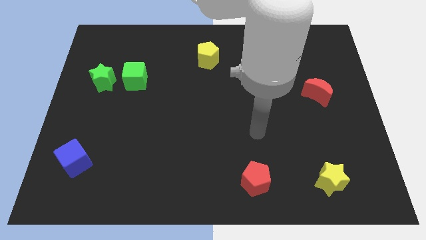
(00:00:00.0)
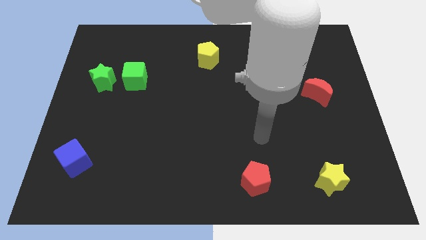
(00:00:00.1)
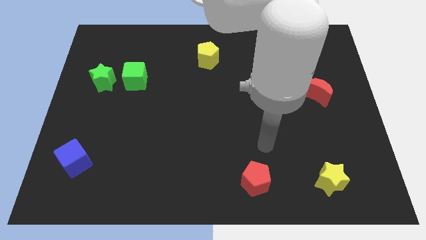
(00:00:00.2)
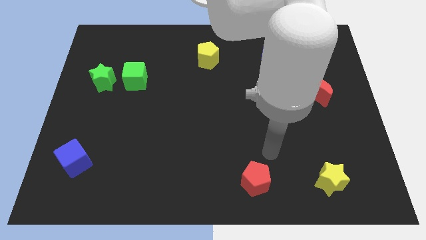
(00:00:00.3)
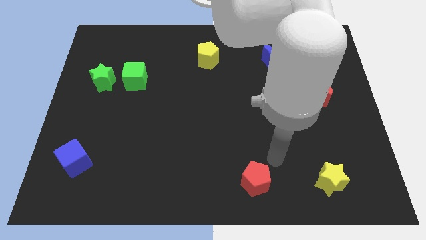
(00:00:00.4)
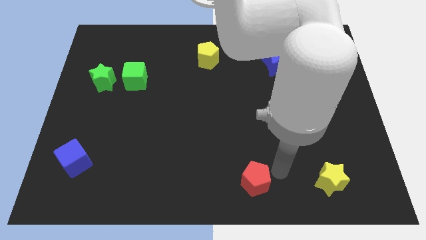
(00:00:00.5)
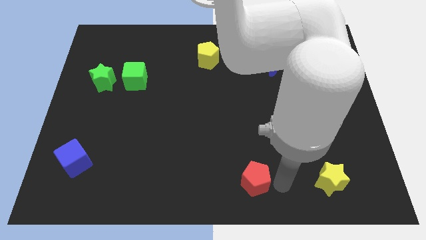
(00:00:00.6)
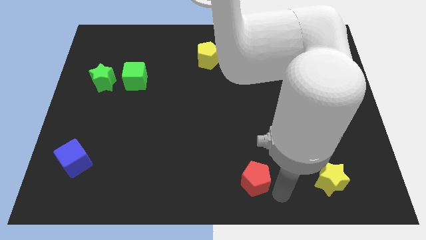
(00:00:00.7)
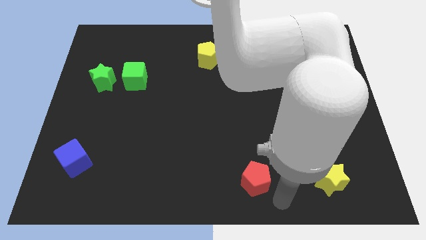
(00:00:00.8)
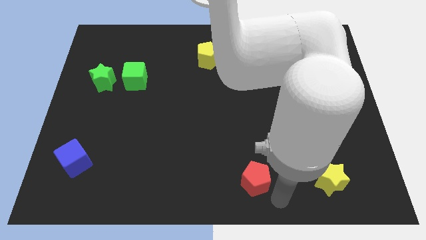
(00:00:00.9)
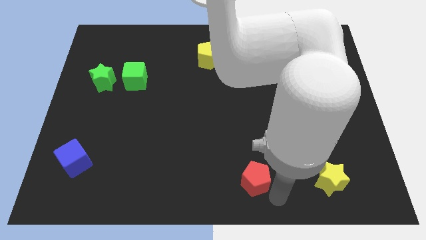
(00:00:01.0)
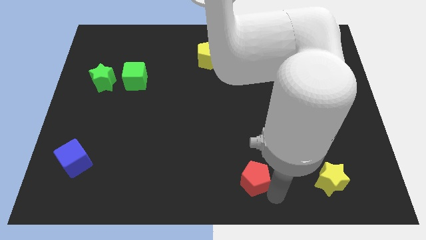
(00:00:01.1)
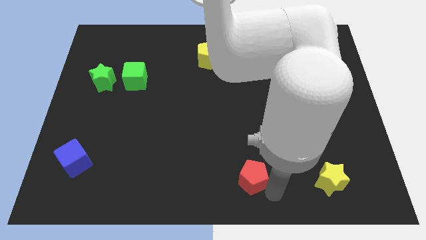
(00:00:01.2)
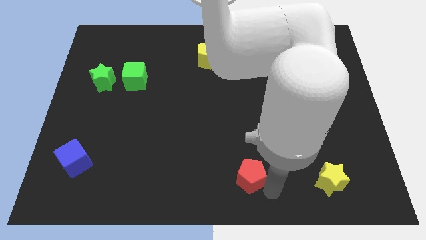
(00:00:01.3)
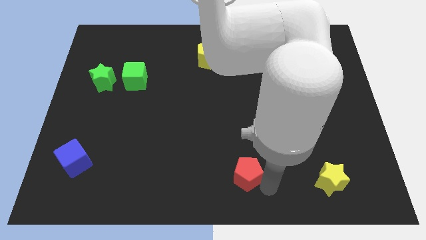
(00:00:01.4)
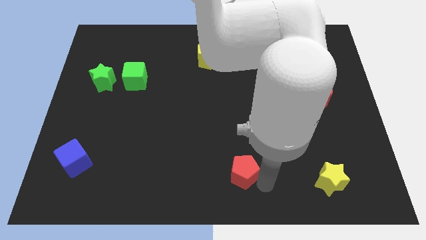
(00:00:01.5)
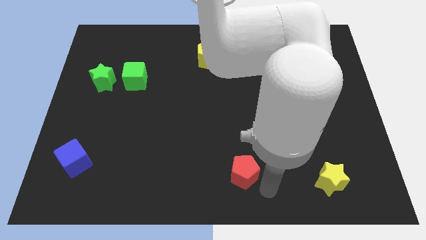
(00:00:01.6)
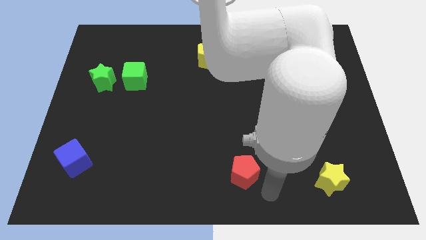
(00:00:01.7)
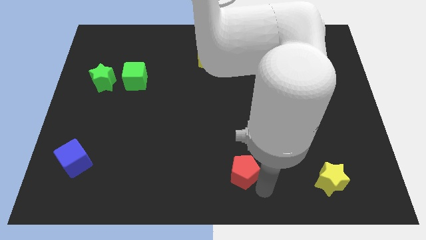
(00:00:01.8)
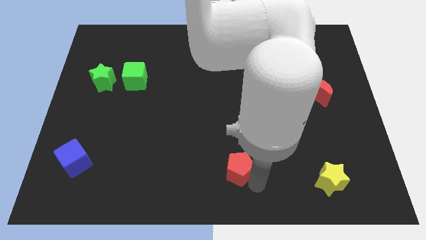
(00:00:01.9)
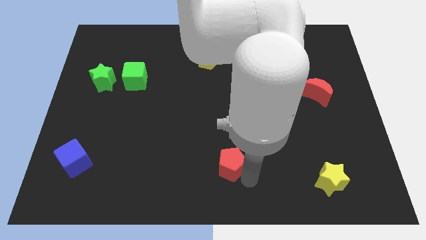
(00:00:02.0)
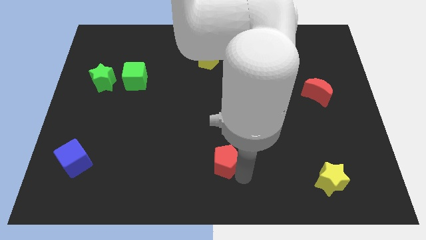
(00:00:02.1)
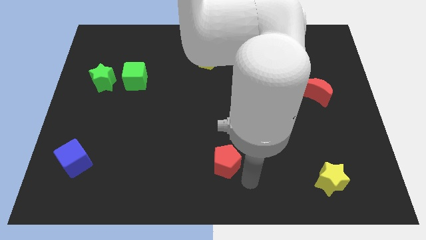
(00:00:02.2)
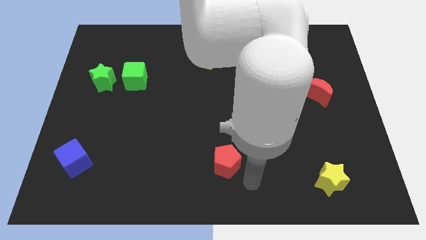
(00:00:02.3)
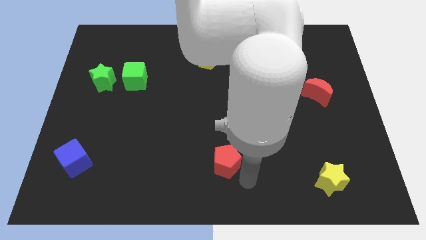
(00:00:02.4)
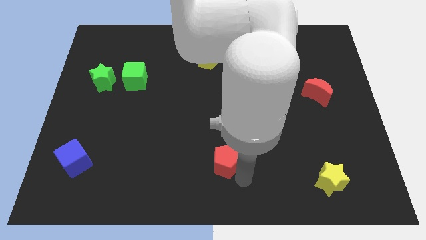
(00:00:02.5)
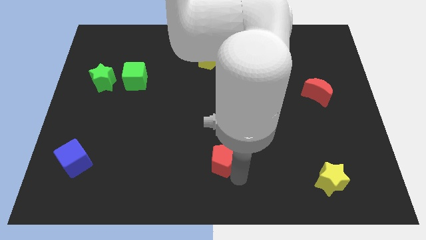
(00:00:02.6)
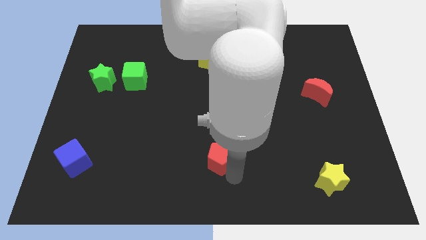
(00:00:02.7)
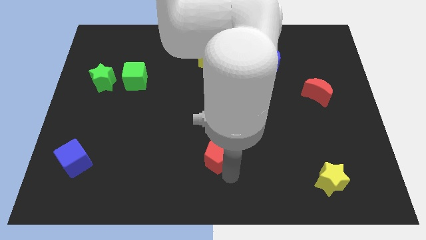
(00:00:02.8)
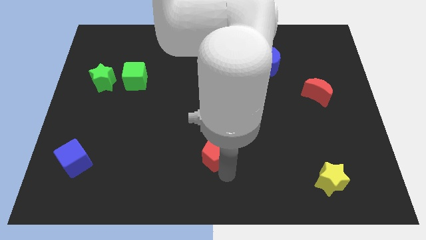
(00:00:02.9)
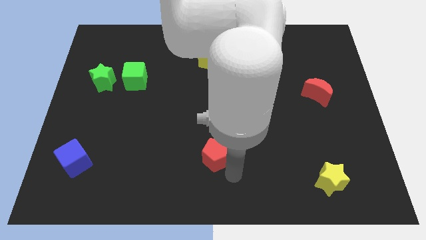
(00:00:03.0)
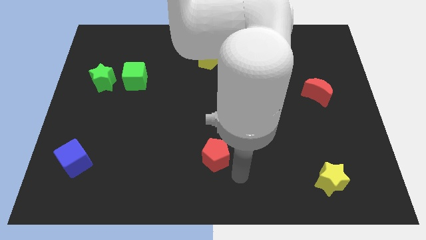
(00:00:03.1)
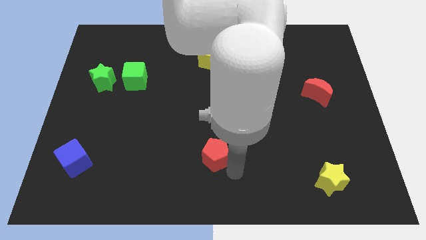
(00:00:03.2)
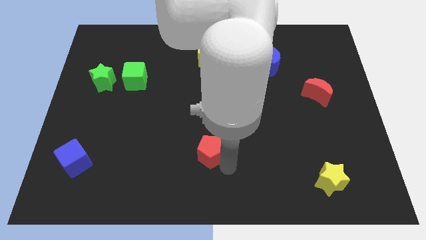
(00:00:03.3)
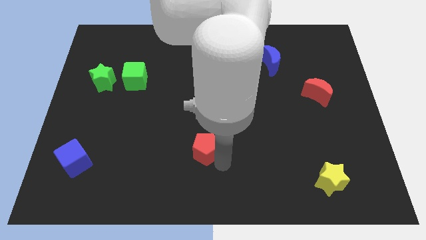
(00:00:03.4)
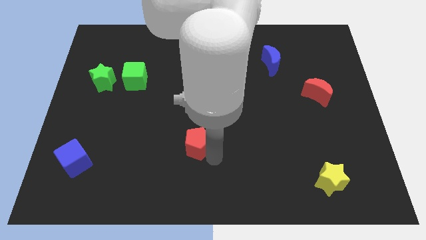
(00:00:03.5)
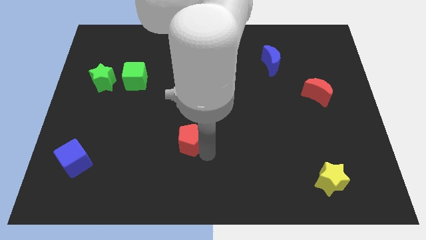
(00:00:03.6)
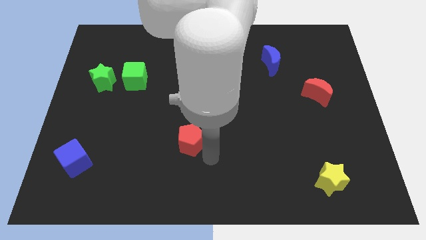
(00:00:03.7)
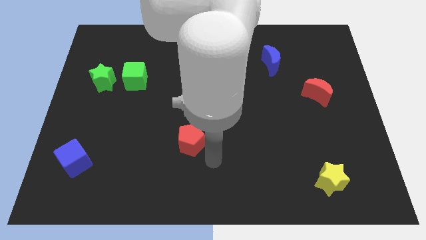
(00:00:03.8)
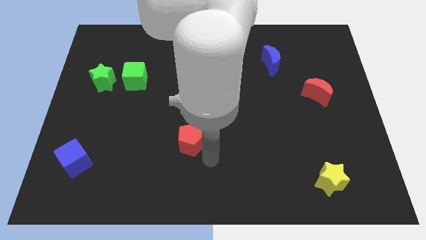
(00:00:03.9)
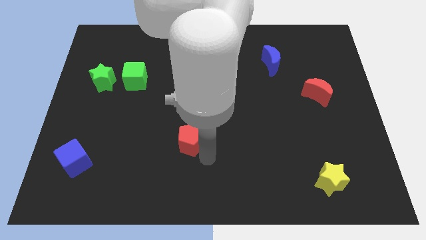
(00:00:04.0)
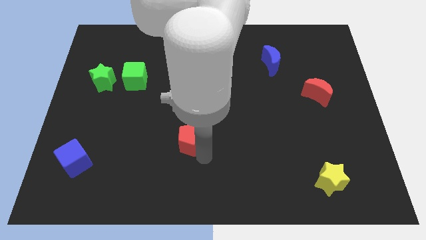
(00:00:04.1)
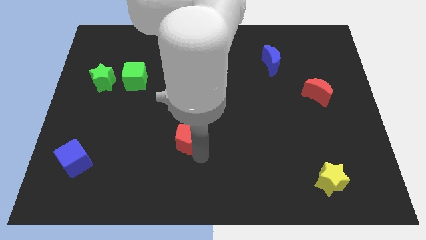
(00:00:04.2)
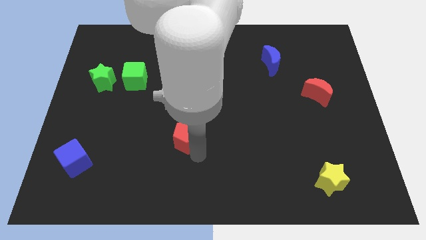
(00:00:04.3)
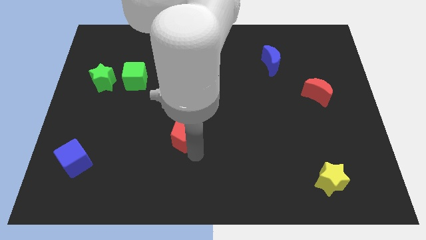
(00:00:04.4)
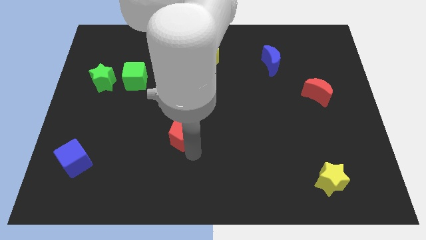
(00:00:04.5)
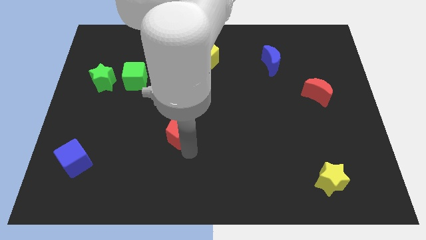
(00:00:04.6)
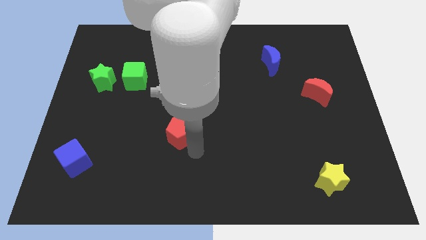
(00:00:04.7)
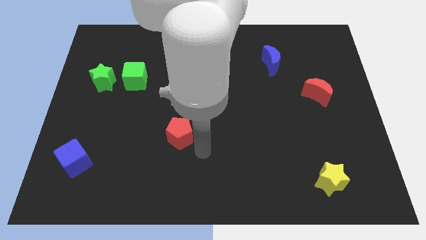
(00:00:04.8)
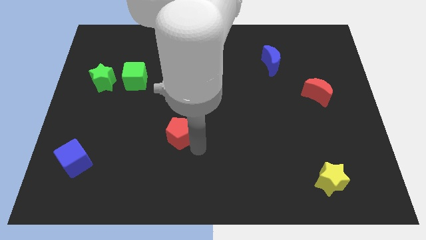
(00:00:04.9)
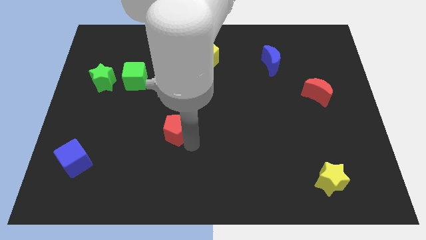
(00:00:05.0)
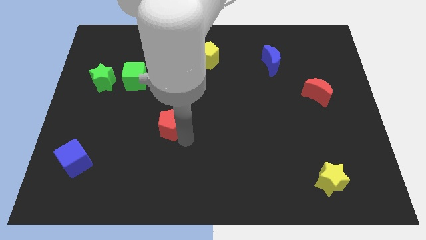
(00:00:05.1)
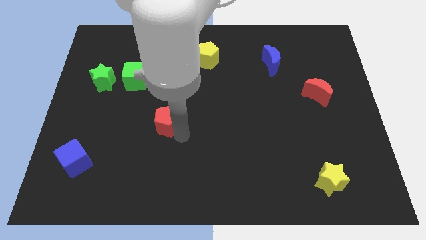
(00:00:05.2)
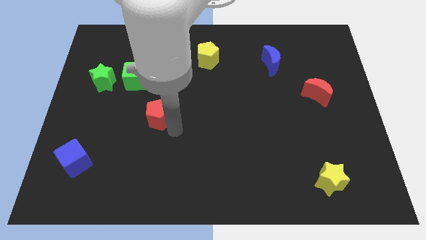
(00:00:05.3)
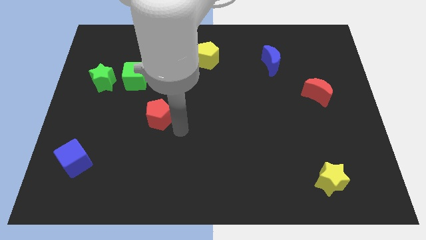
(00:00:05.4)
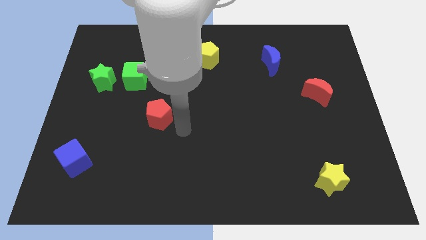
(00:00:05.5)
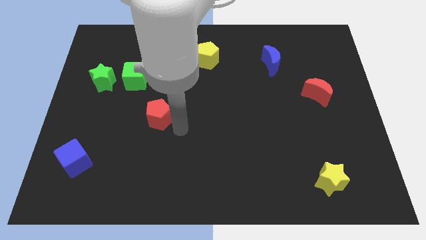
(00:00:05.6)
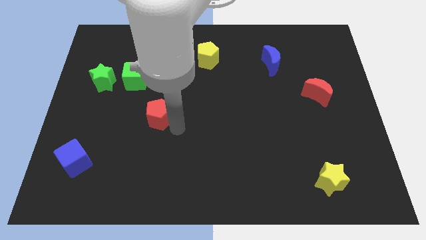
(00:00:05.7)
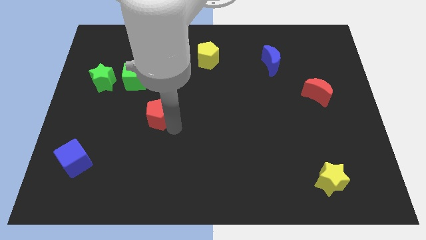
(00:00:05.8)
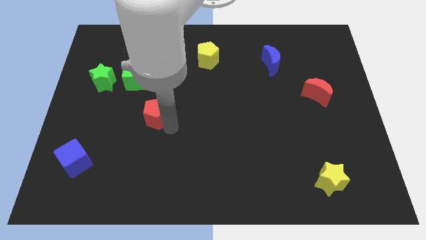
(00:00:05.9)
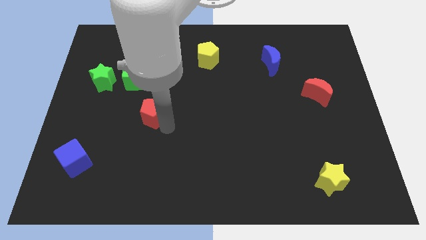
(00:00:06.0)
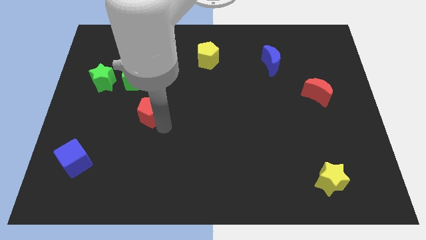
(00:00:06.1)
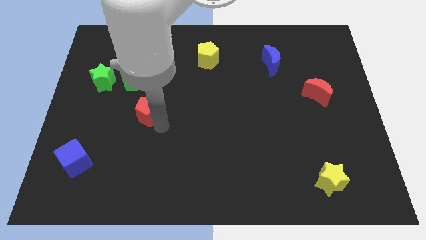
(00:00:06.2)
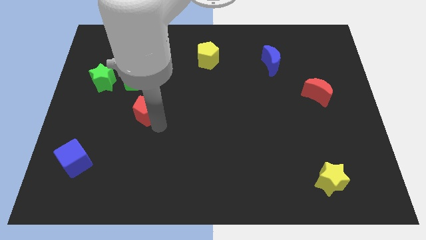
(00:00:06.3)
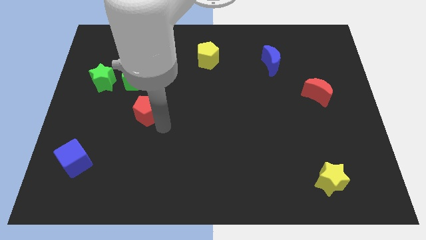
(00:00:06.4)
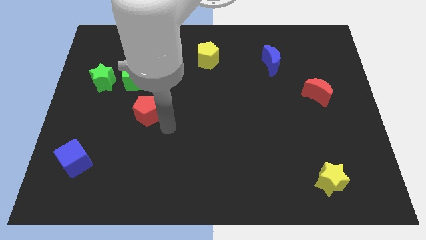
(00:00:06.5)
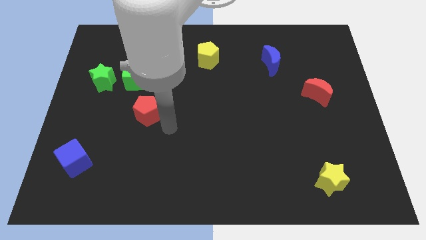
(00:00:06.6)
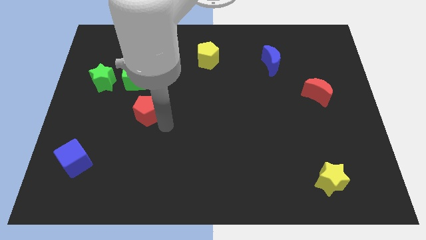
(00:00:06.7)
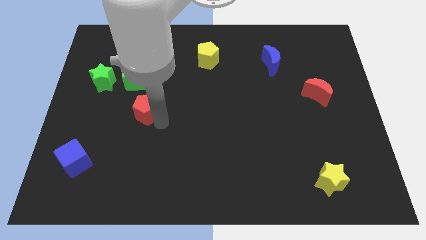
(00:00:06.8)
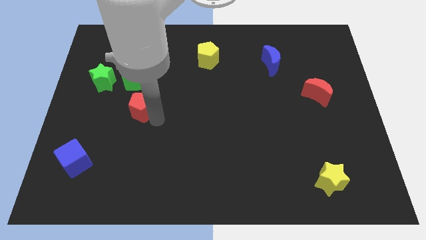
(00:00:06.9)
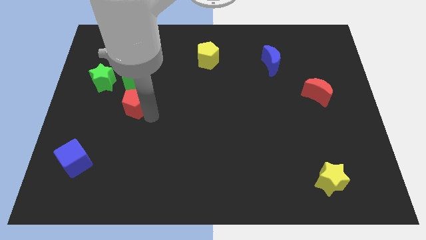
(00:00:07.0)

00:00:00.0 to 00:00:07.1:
slide the red pentagon to the bottom right side of the green star

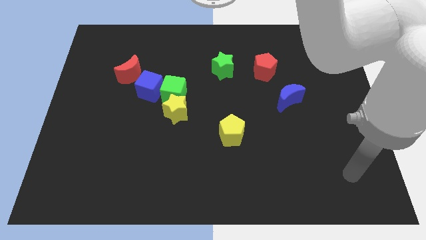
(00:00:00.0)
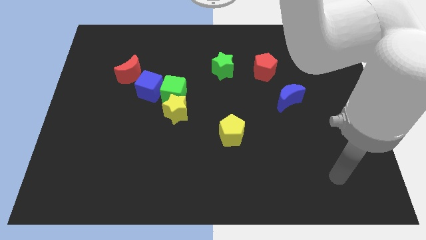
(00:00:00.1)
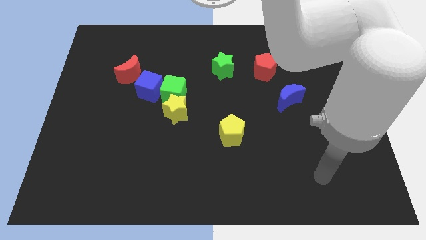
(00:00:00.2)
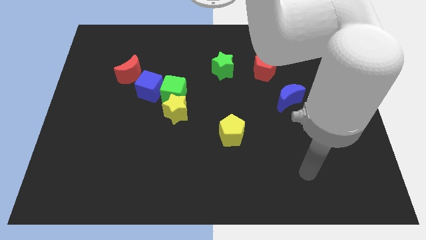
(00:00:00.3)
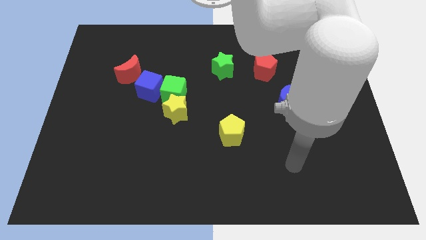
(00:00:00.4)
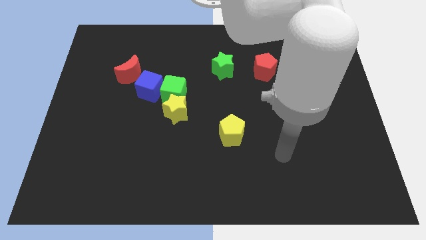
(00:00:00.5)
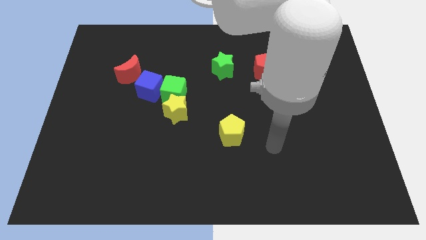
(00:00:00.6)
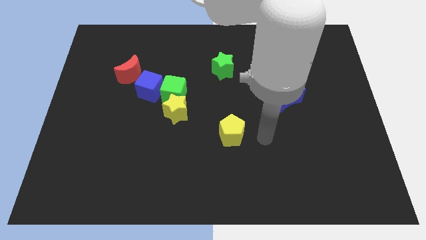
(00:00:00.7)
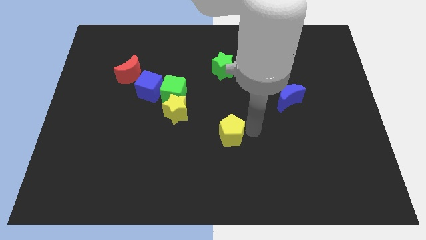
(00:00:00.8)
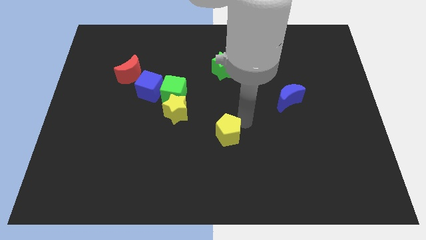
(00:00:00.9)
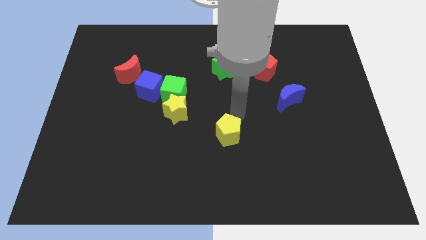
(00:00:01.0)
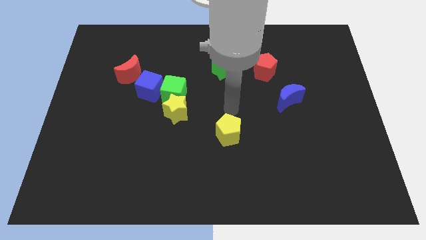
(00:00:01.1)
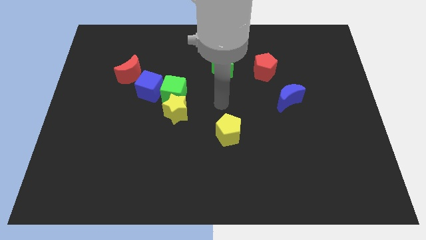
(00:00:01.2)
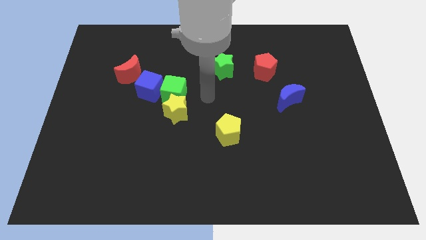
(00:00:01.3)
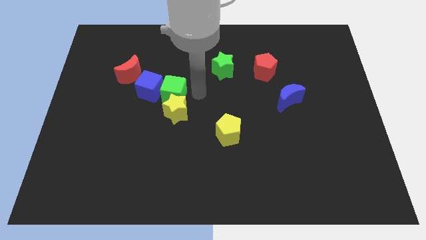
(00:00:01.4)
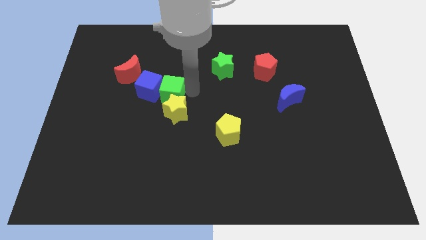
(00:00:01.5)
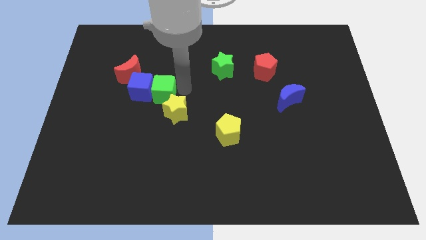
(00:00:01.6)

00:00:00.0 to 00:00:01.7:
push the blue cube to the bottom of the red moon
